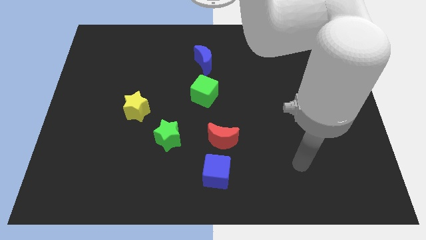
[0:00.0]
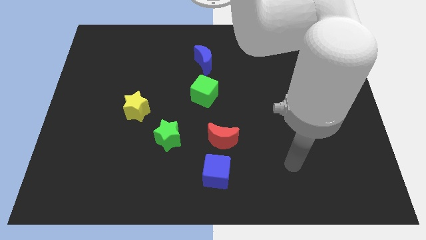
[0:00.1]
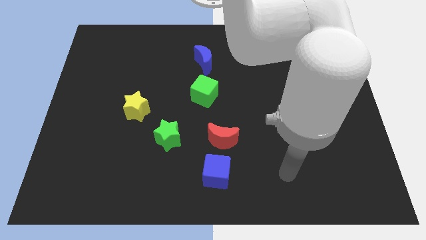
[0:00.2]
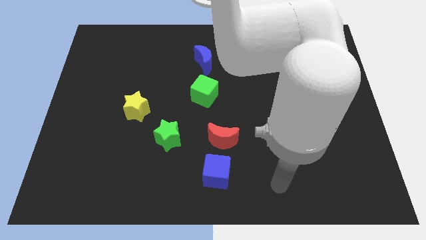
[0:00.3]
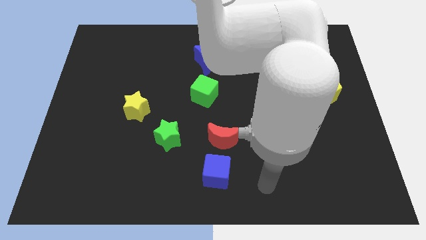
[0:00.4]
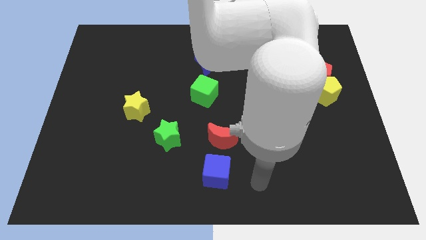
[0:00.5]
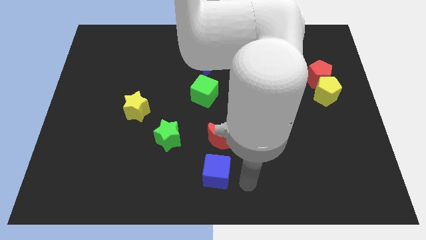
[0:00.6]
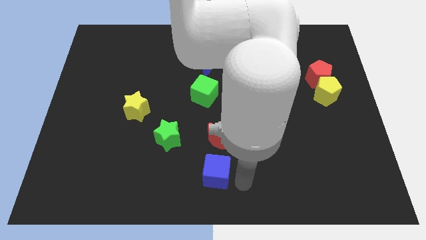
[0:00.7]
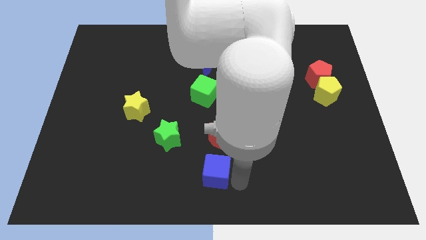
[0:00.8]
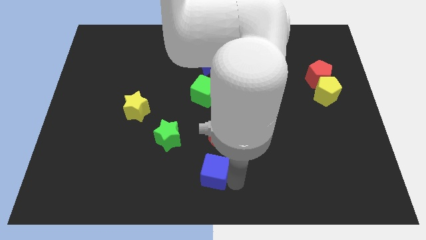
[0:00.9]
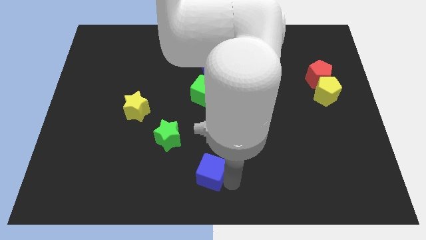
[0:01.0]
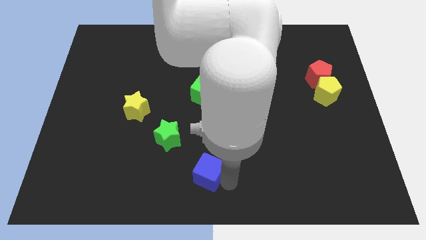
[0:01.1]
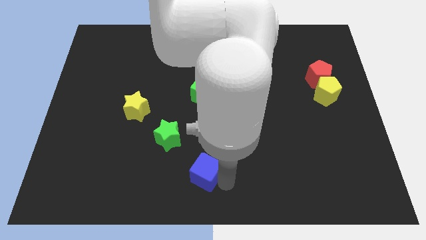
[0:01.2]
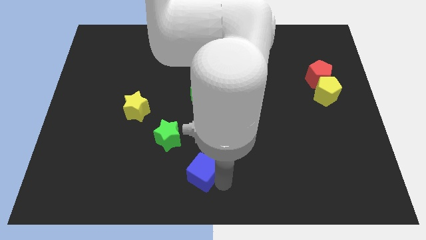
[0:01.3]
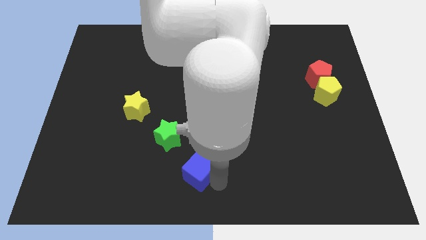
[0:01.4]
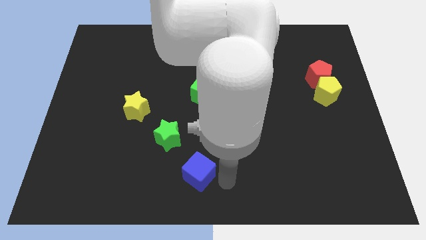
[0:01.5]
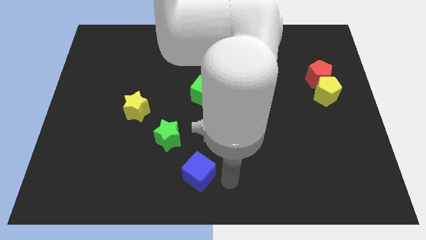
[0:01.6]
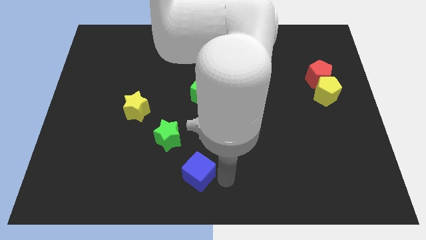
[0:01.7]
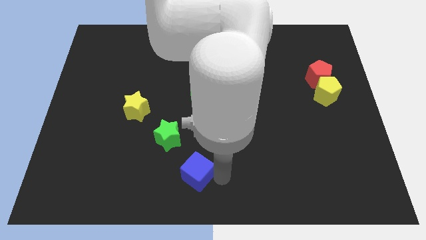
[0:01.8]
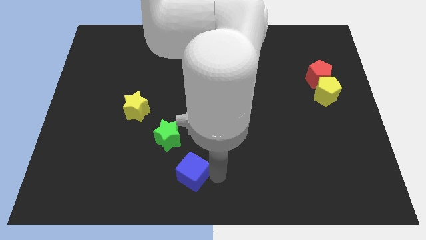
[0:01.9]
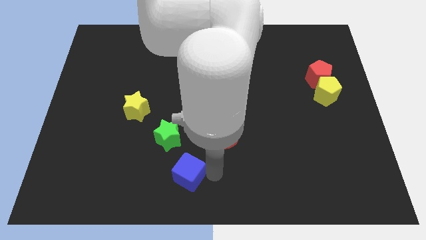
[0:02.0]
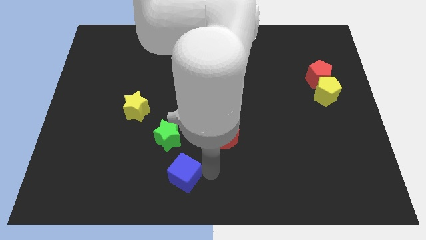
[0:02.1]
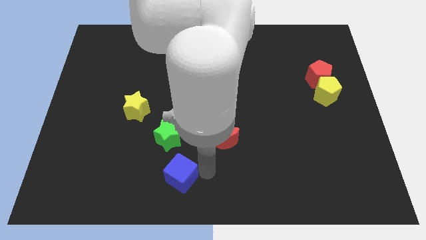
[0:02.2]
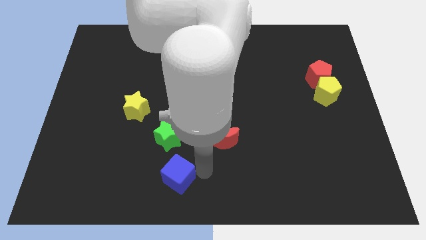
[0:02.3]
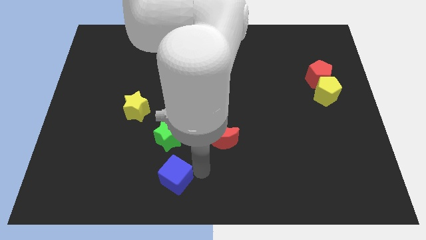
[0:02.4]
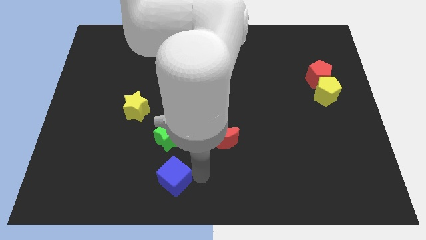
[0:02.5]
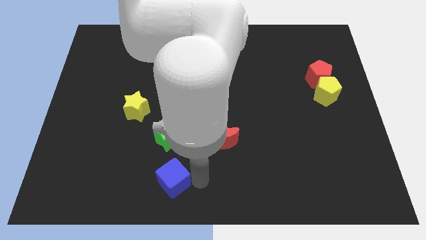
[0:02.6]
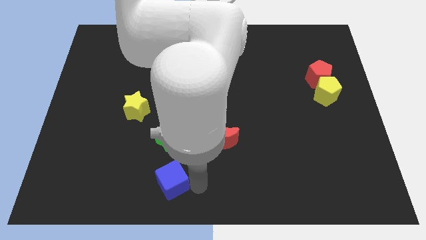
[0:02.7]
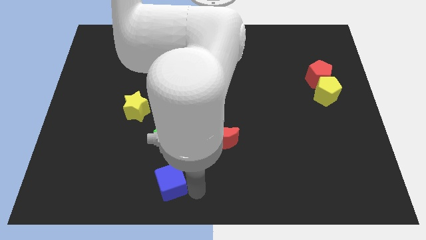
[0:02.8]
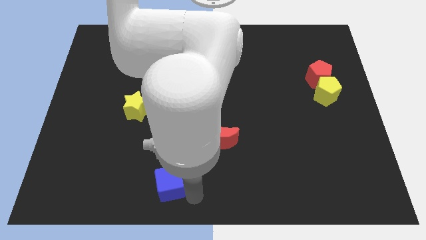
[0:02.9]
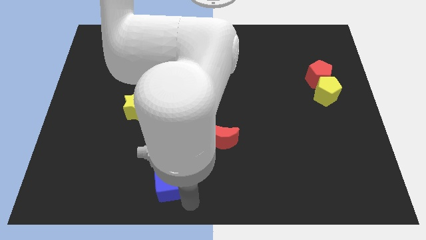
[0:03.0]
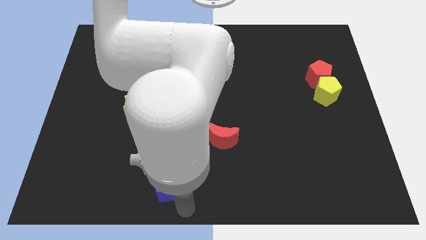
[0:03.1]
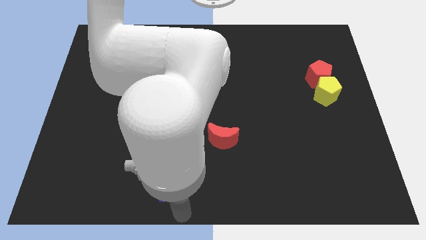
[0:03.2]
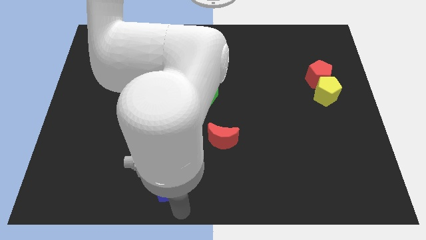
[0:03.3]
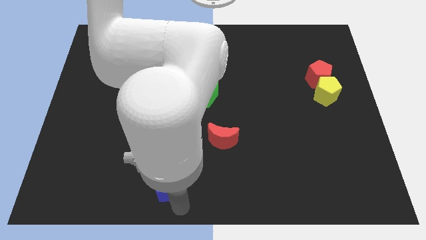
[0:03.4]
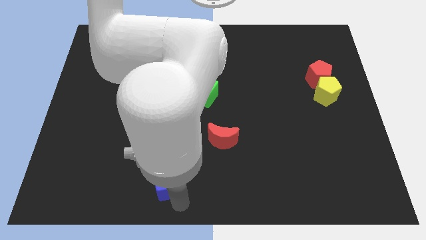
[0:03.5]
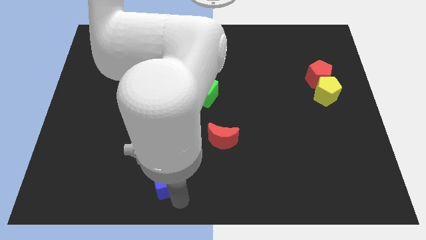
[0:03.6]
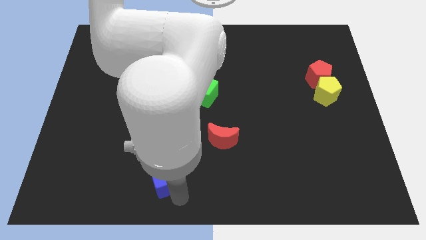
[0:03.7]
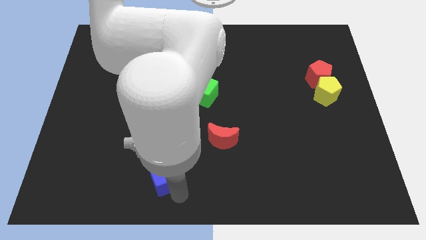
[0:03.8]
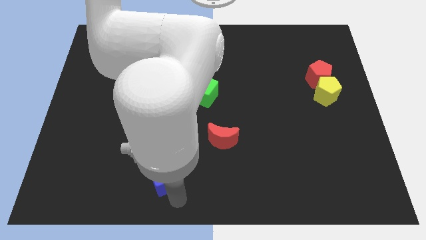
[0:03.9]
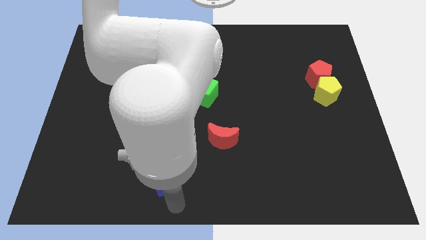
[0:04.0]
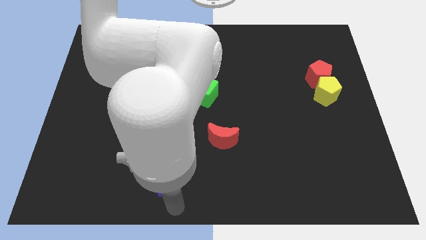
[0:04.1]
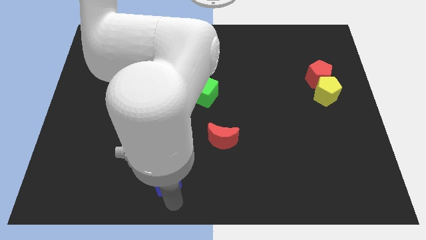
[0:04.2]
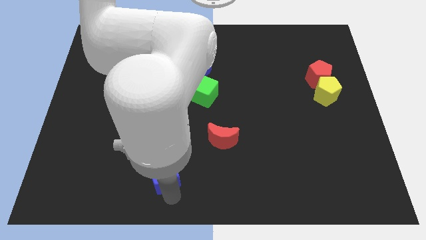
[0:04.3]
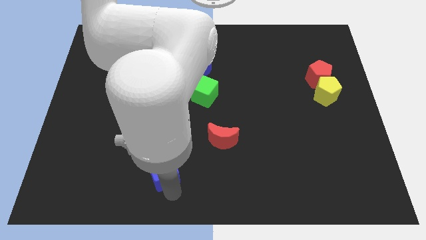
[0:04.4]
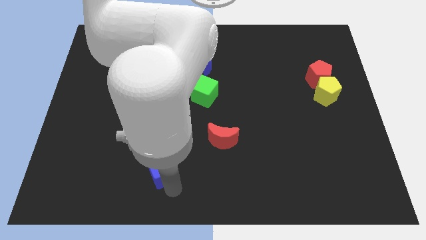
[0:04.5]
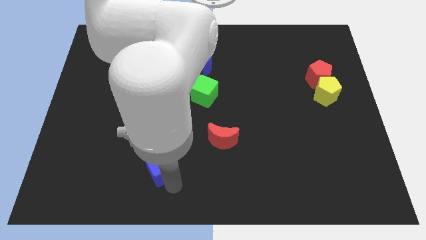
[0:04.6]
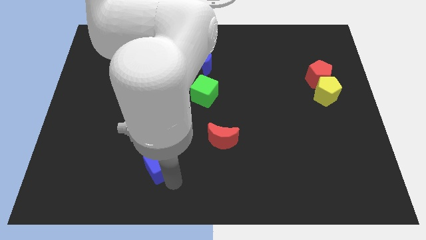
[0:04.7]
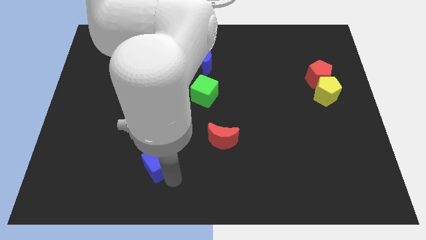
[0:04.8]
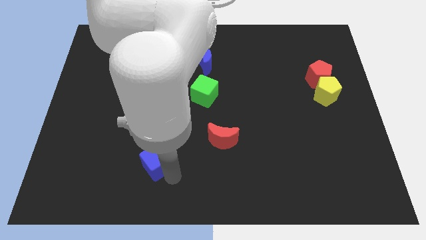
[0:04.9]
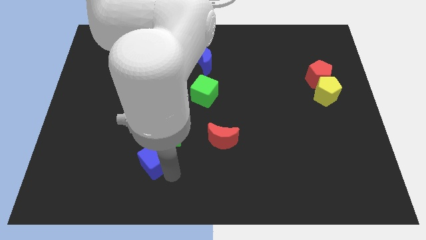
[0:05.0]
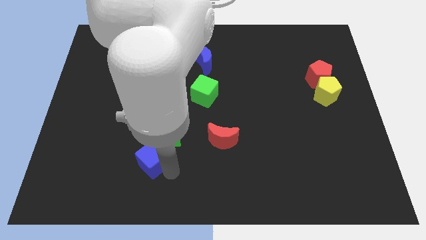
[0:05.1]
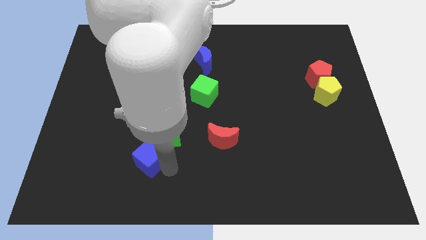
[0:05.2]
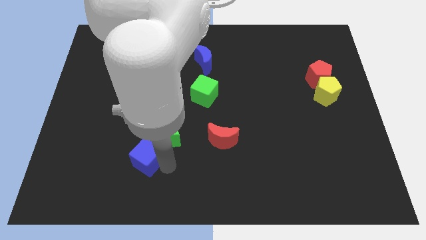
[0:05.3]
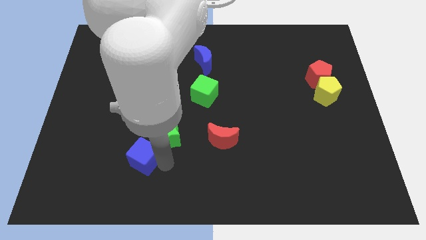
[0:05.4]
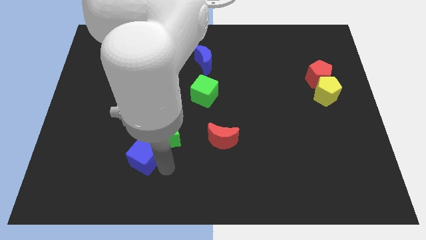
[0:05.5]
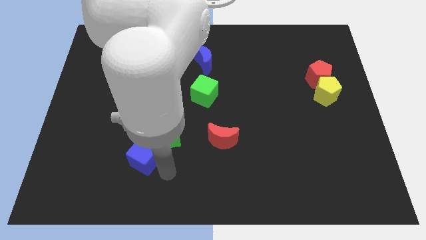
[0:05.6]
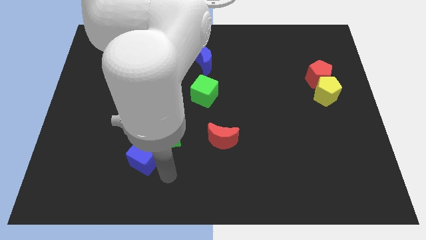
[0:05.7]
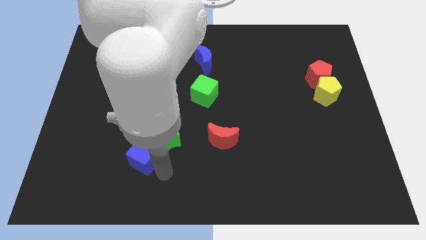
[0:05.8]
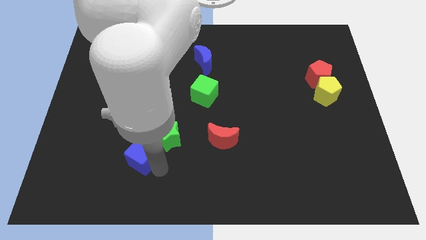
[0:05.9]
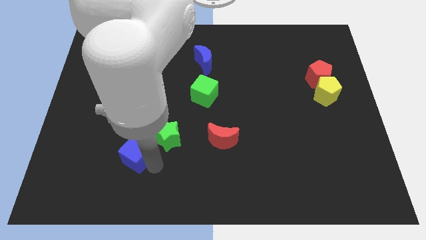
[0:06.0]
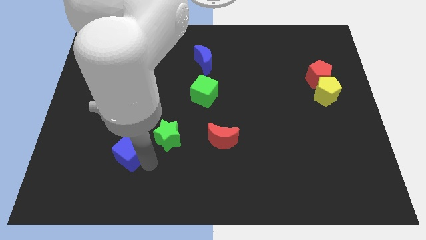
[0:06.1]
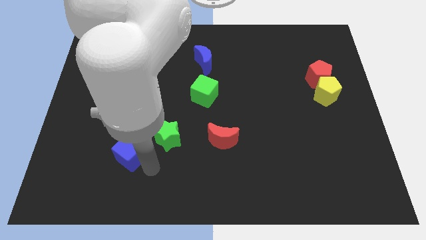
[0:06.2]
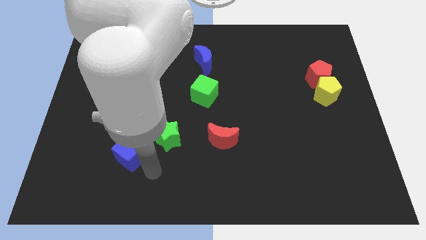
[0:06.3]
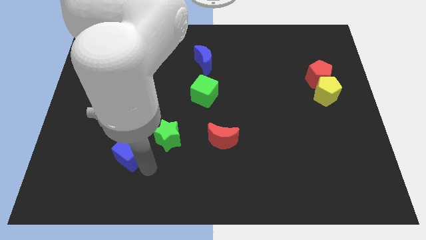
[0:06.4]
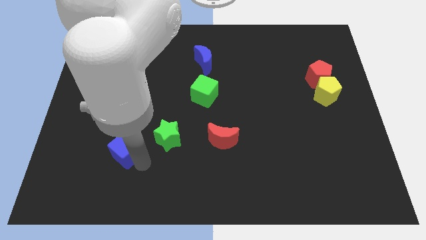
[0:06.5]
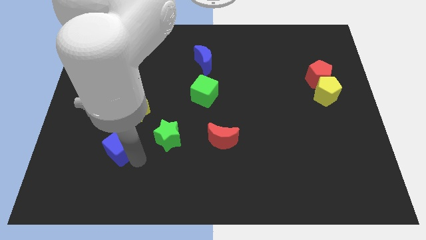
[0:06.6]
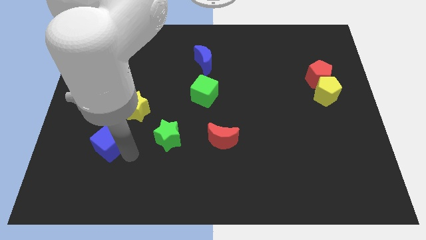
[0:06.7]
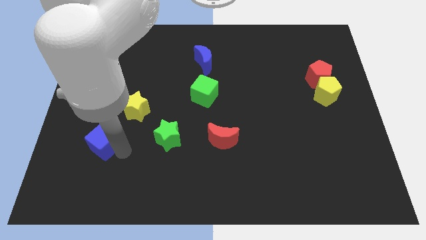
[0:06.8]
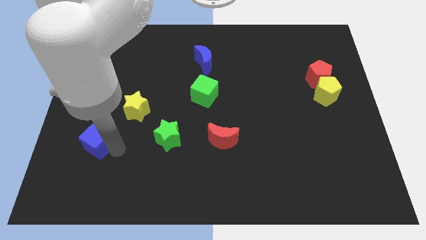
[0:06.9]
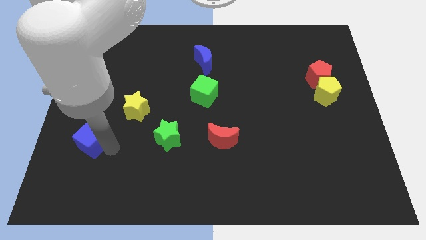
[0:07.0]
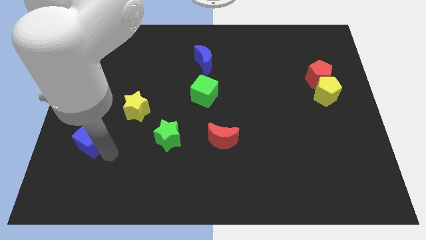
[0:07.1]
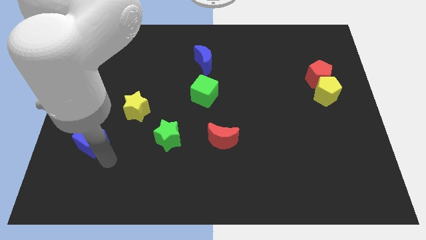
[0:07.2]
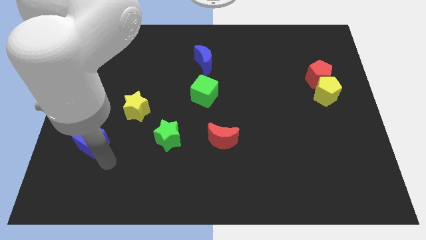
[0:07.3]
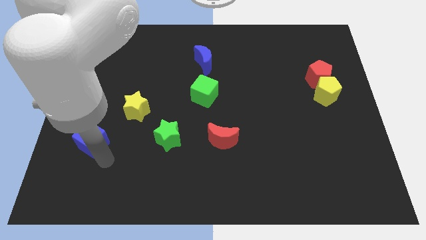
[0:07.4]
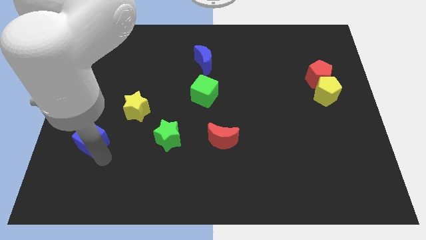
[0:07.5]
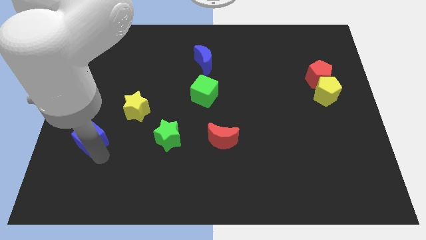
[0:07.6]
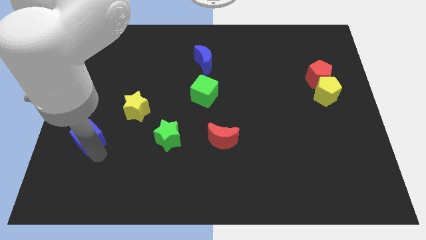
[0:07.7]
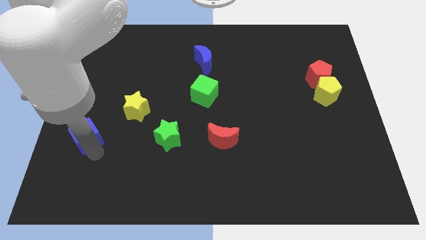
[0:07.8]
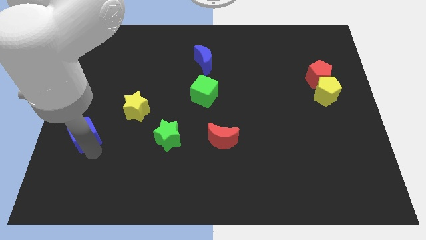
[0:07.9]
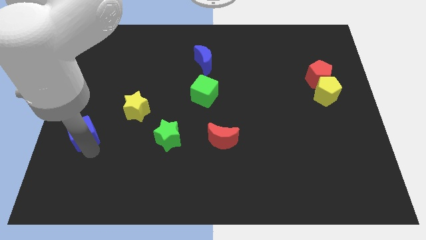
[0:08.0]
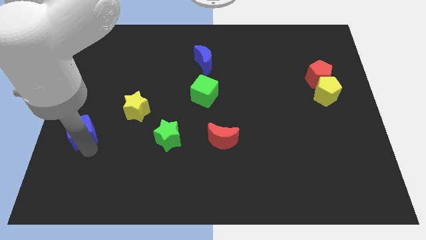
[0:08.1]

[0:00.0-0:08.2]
move the blue cube to the left side of the board
